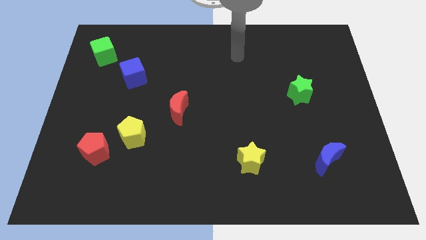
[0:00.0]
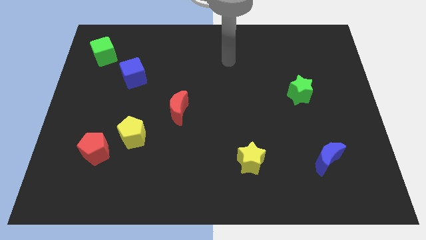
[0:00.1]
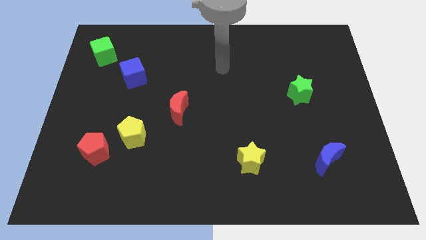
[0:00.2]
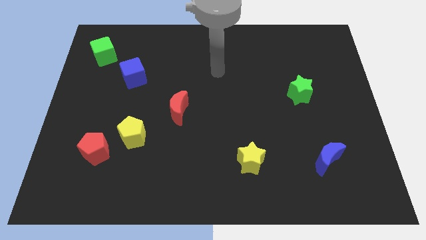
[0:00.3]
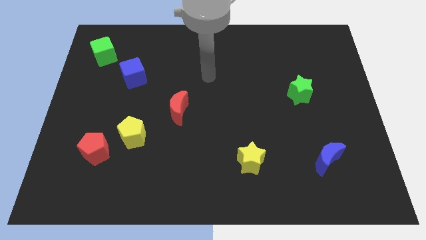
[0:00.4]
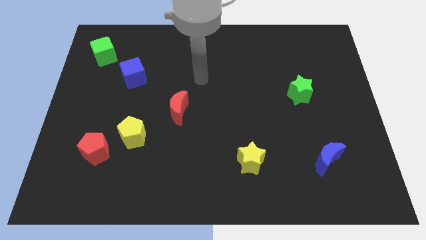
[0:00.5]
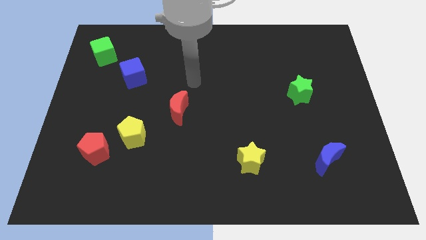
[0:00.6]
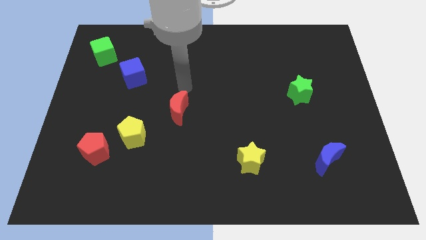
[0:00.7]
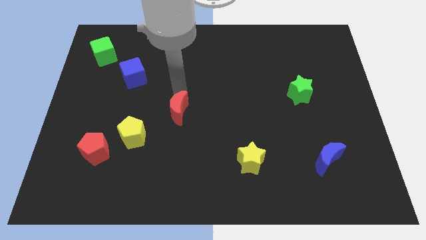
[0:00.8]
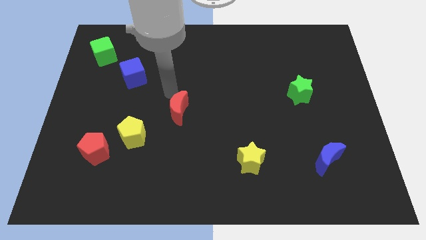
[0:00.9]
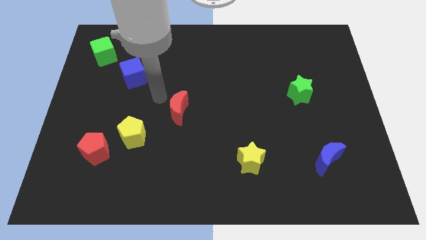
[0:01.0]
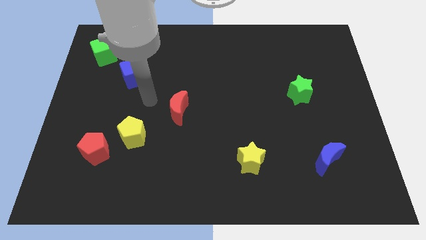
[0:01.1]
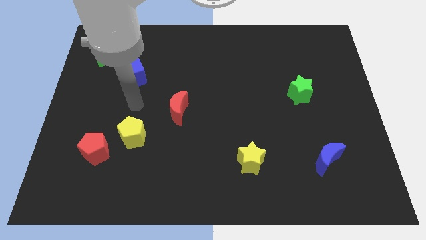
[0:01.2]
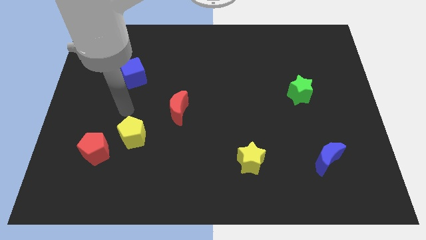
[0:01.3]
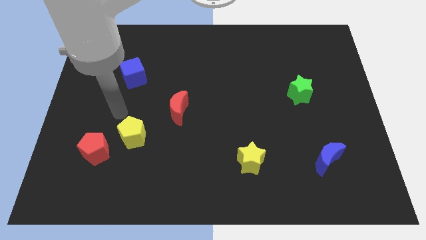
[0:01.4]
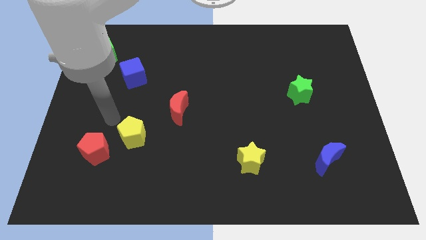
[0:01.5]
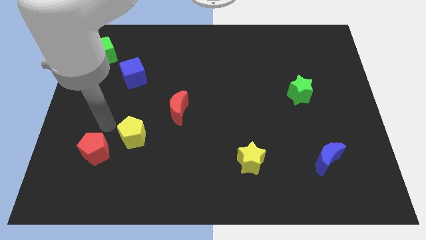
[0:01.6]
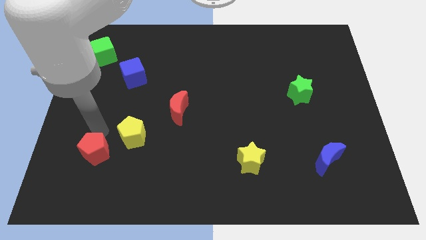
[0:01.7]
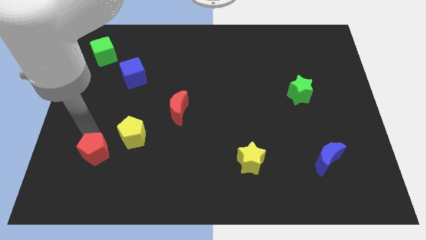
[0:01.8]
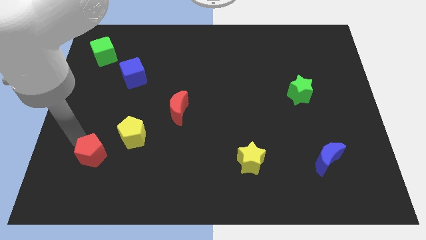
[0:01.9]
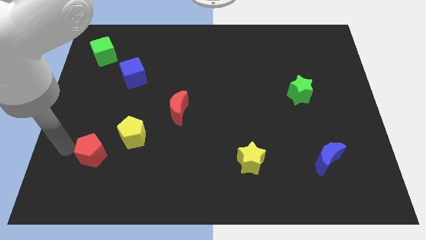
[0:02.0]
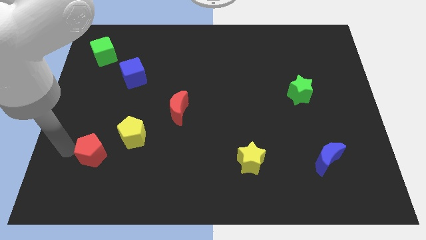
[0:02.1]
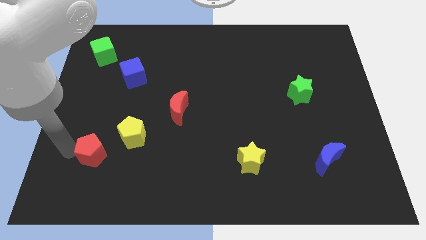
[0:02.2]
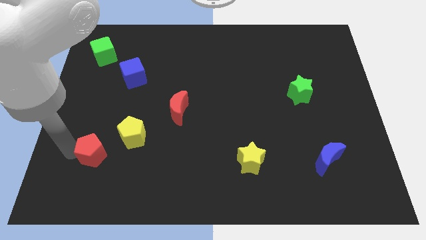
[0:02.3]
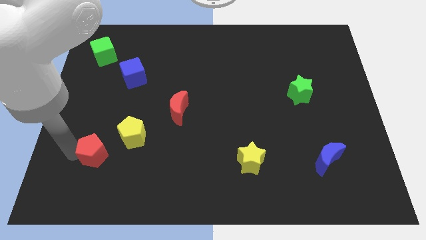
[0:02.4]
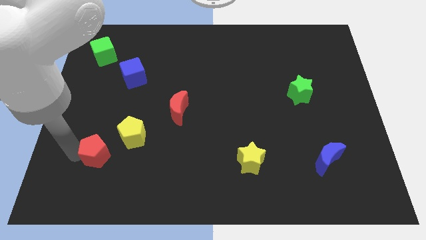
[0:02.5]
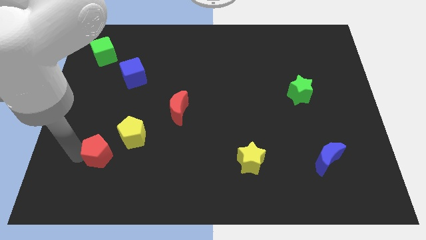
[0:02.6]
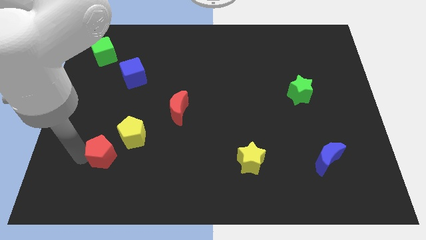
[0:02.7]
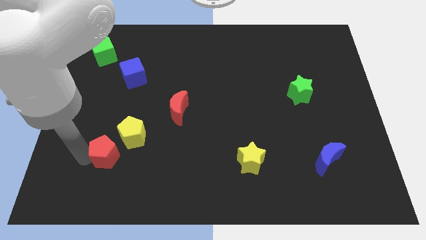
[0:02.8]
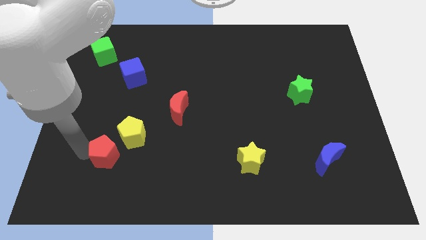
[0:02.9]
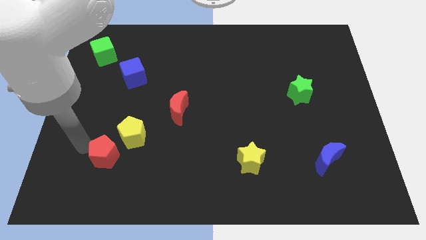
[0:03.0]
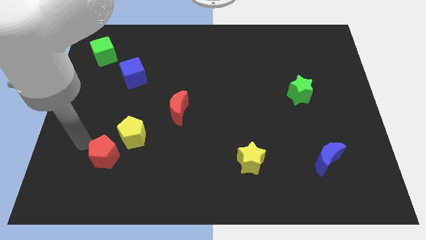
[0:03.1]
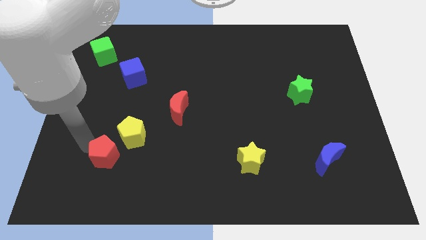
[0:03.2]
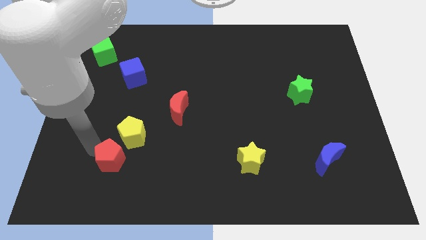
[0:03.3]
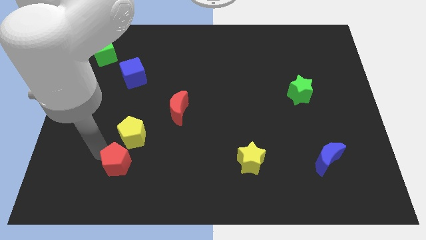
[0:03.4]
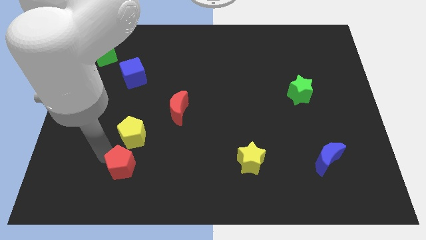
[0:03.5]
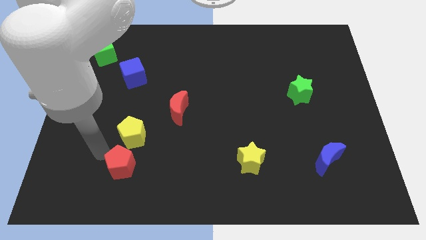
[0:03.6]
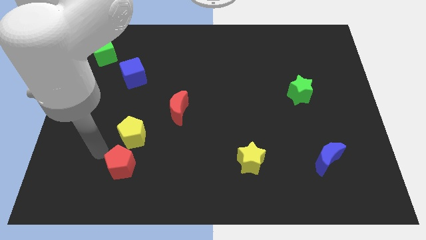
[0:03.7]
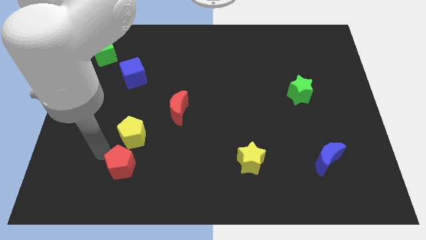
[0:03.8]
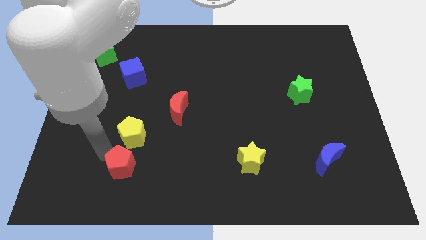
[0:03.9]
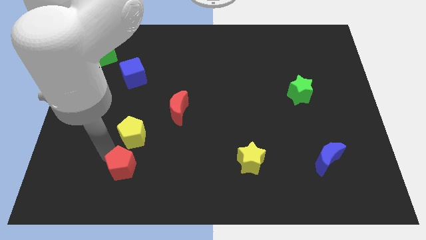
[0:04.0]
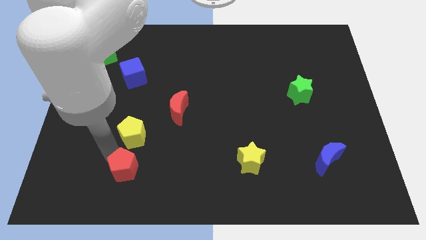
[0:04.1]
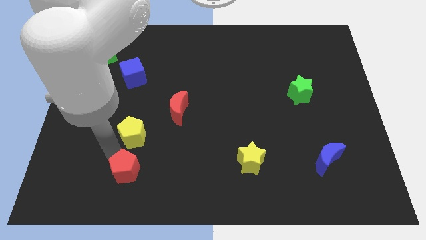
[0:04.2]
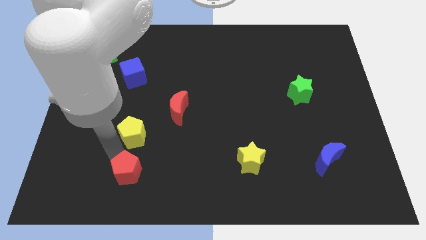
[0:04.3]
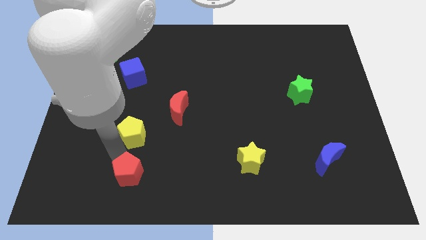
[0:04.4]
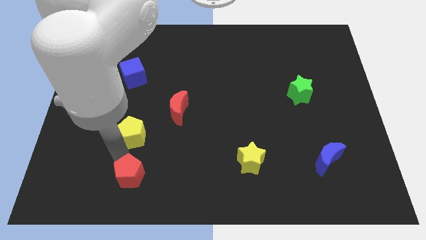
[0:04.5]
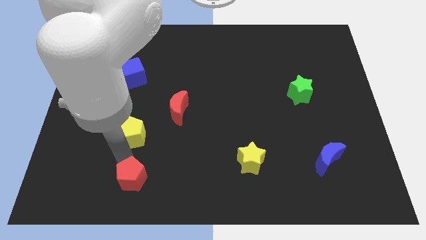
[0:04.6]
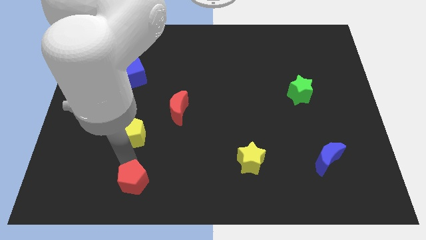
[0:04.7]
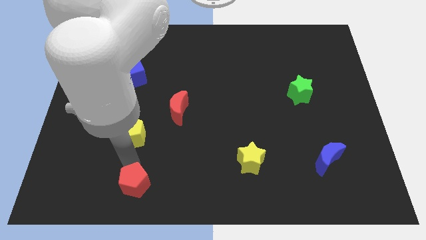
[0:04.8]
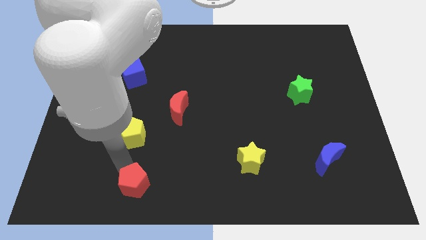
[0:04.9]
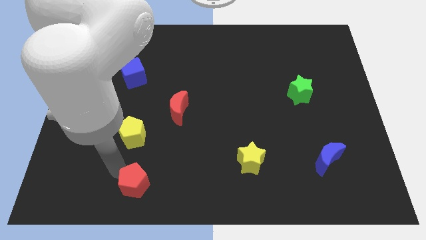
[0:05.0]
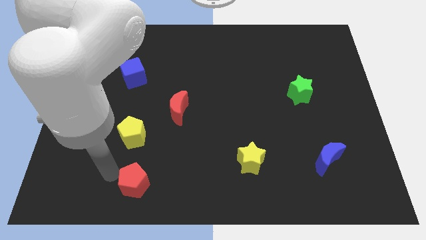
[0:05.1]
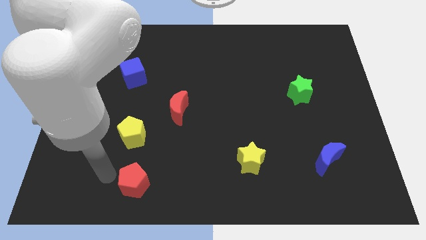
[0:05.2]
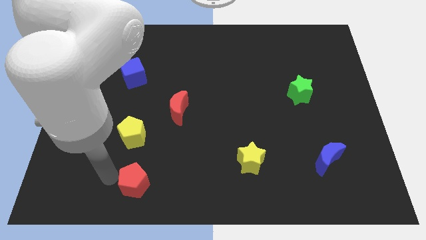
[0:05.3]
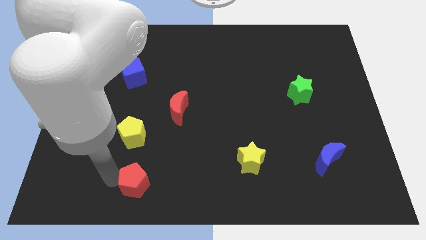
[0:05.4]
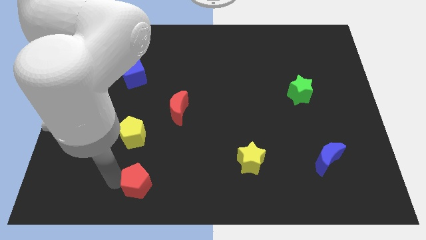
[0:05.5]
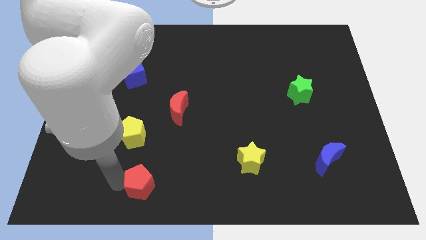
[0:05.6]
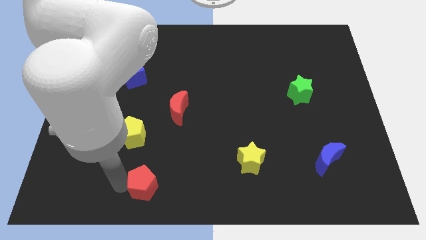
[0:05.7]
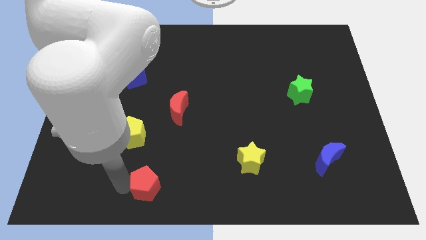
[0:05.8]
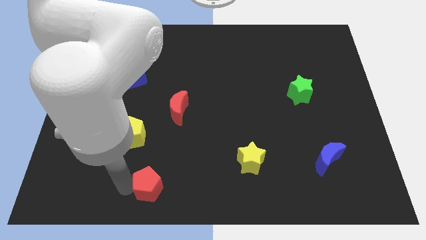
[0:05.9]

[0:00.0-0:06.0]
slide the red pentagon to the bottom
